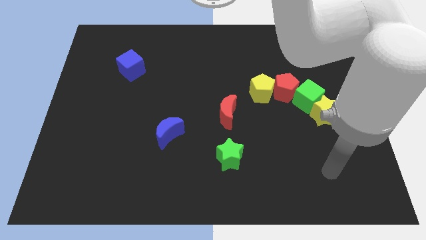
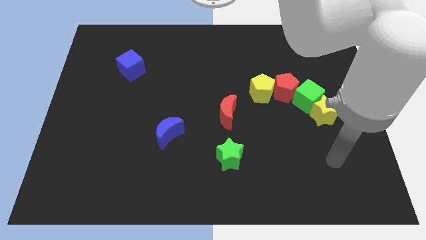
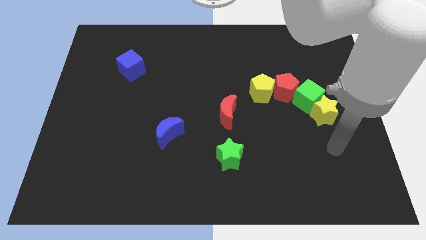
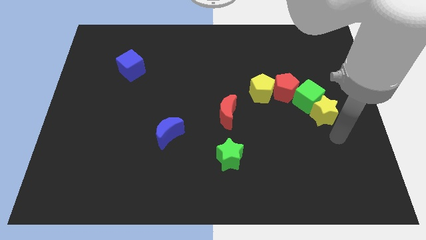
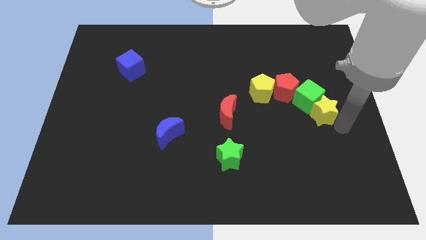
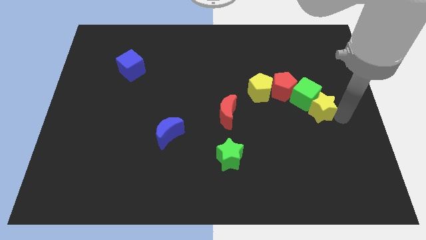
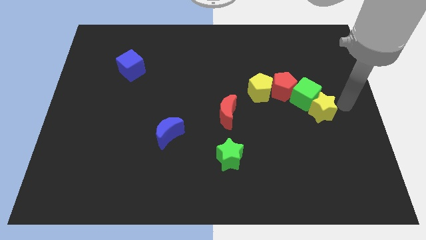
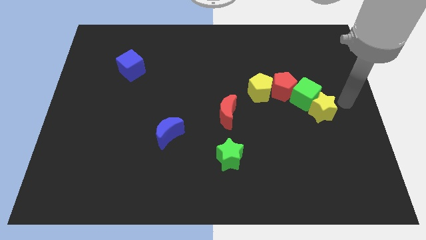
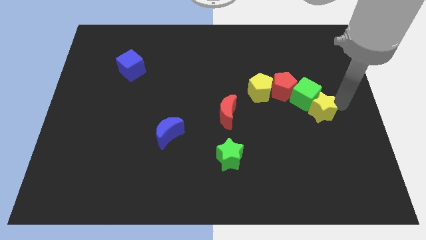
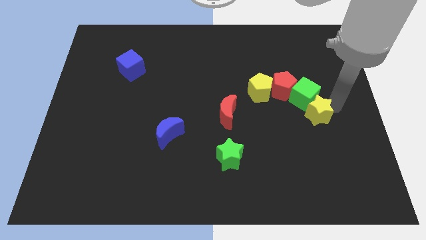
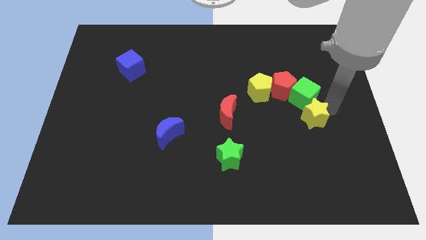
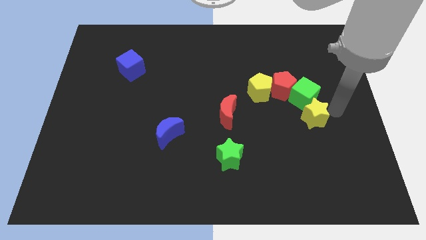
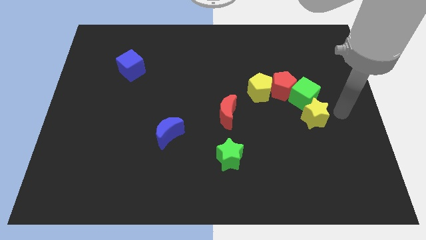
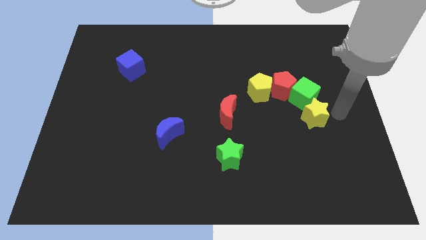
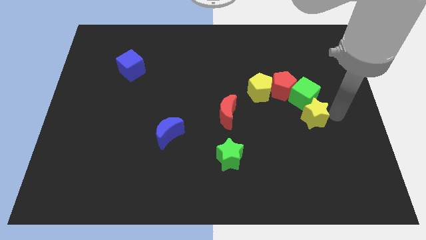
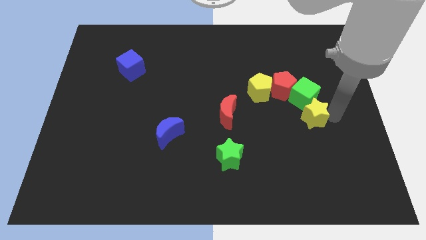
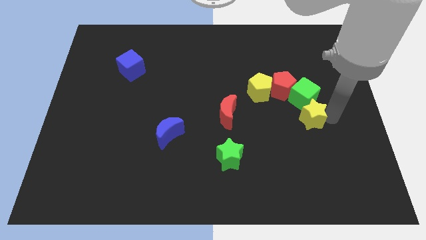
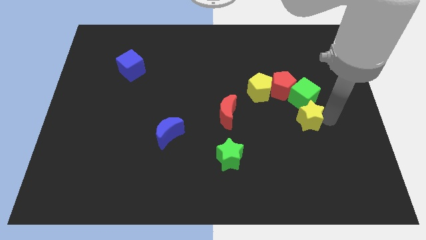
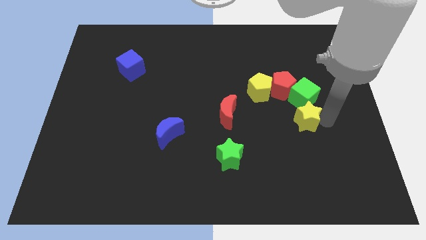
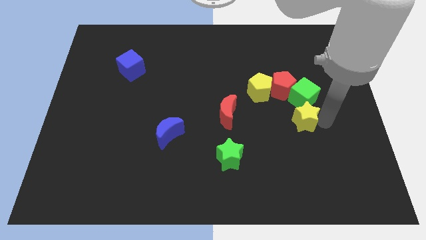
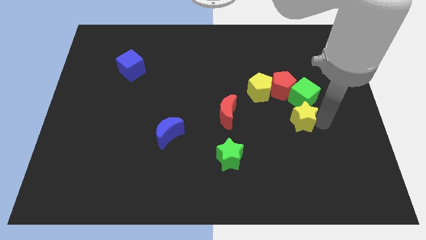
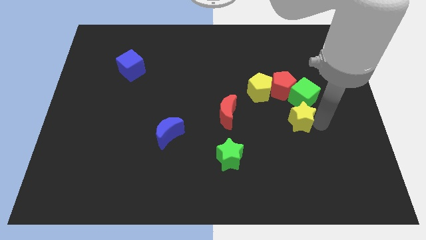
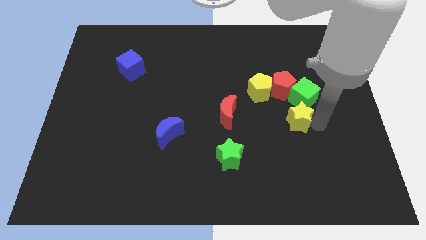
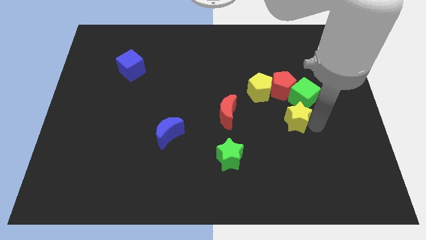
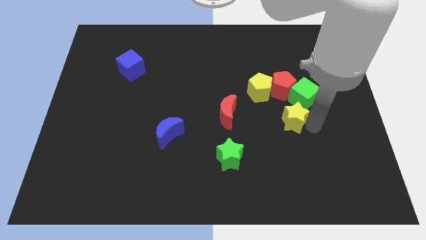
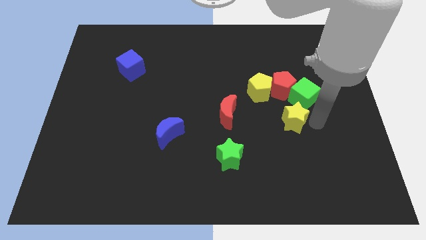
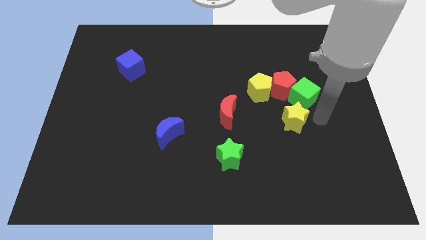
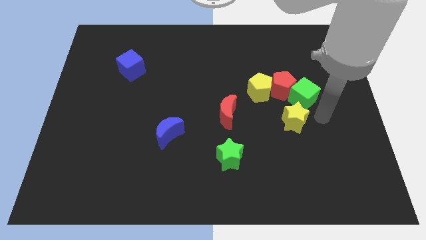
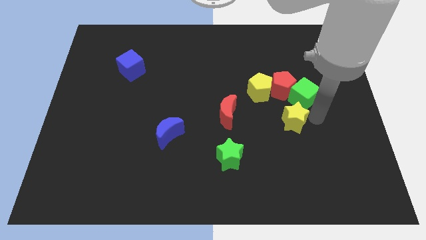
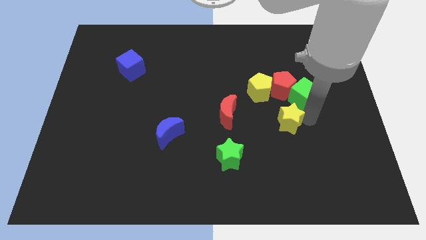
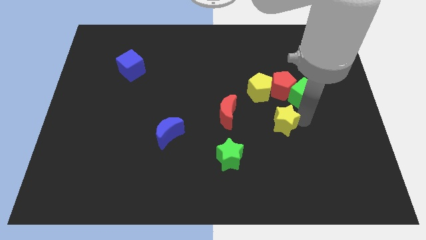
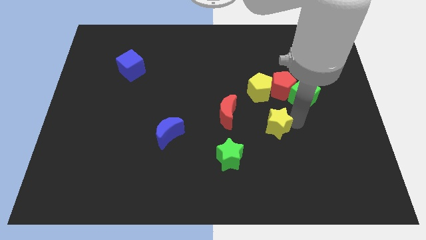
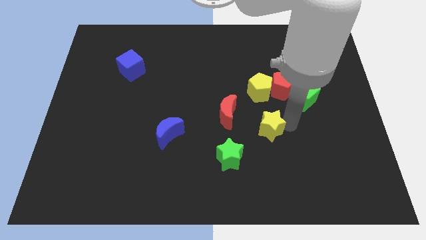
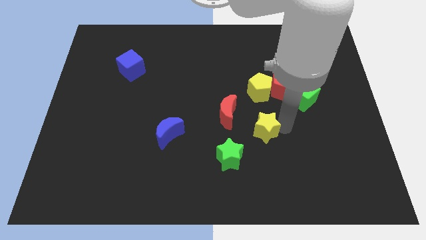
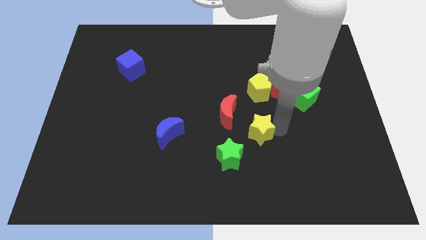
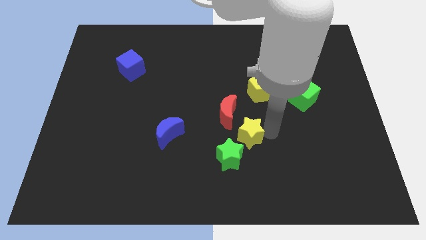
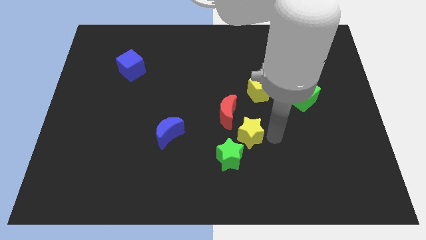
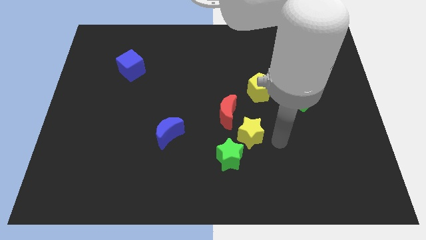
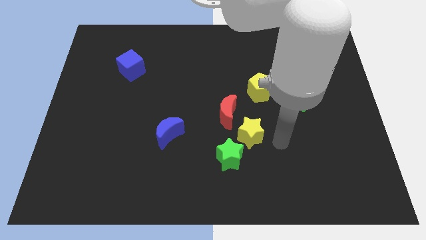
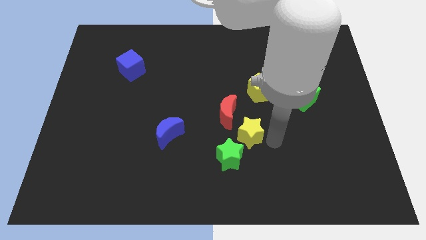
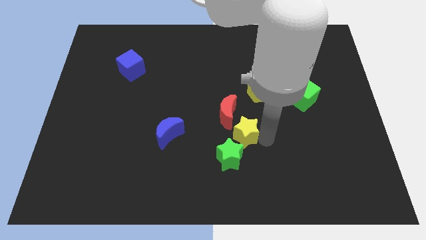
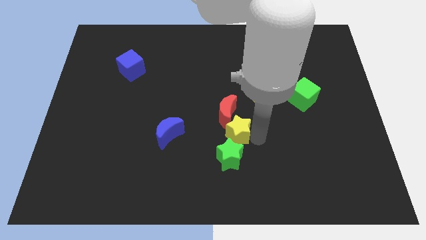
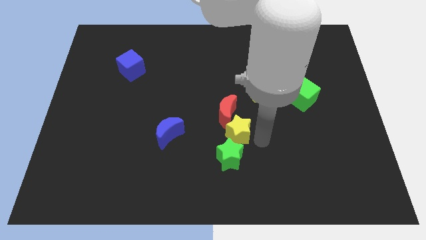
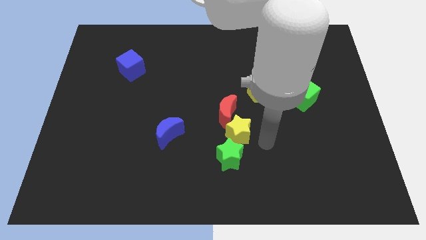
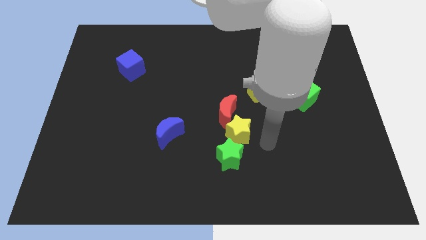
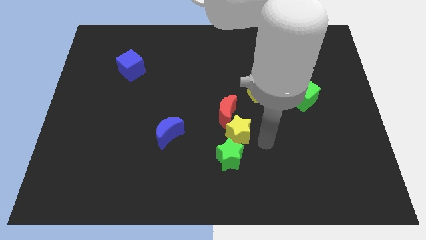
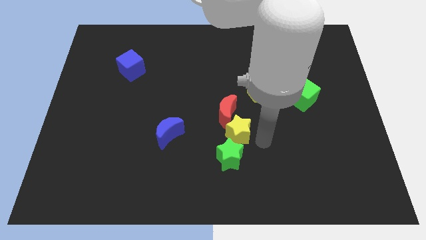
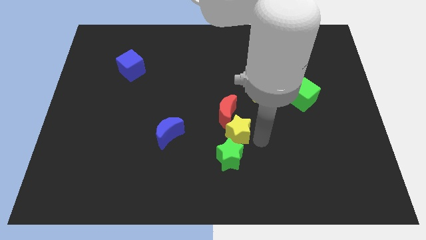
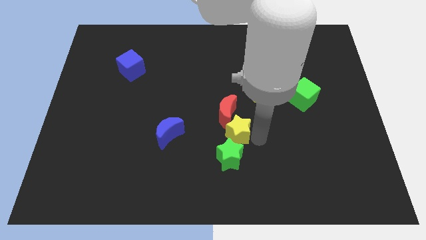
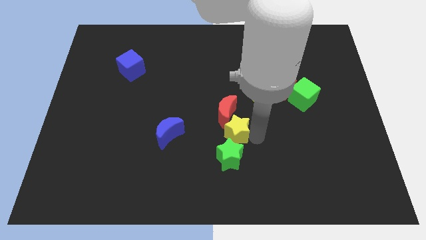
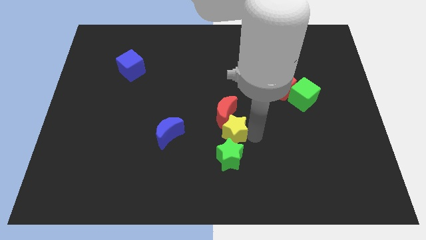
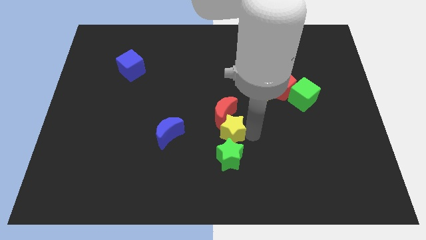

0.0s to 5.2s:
slide the yellow star left

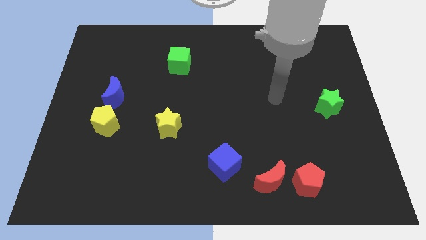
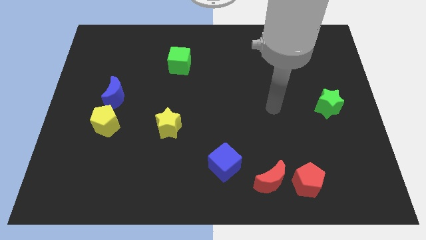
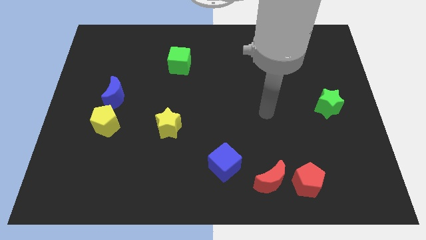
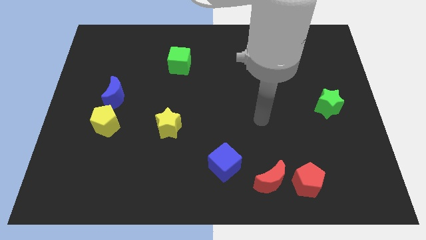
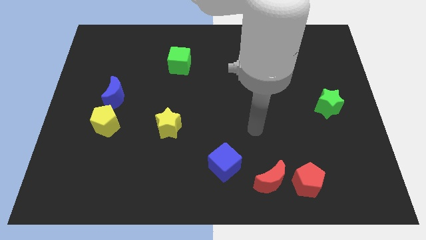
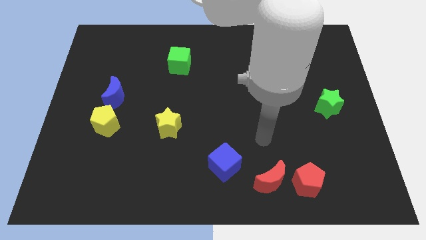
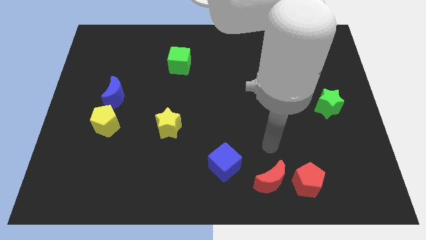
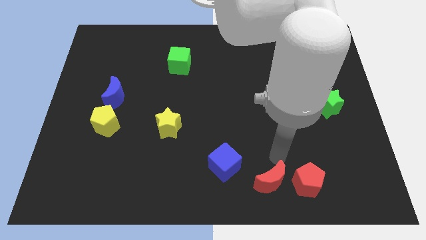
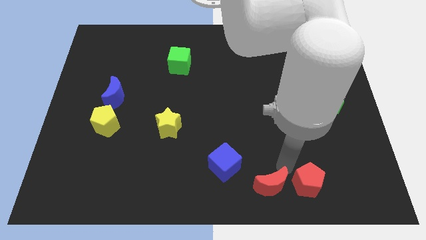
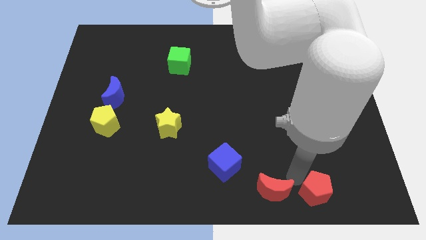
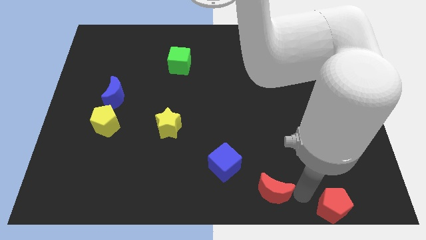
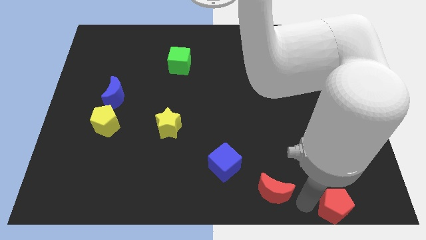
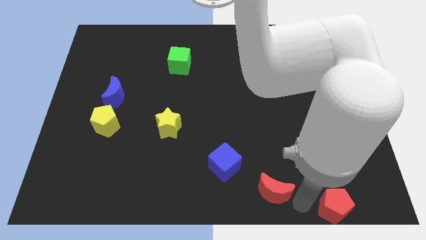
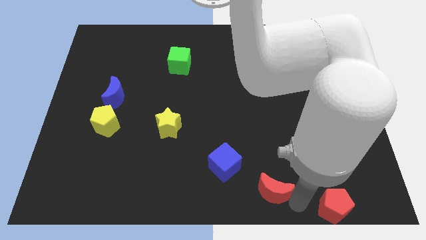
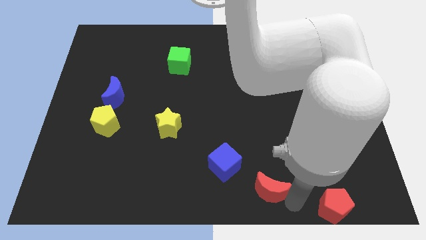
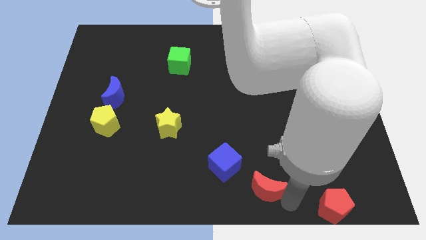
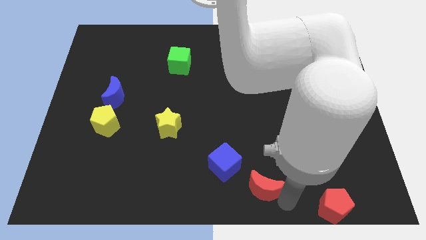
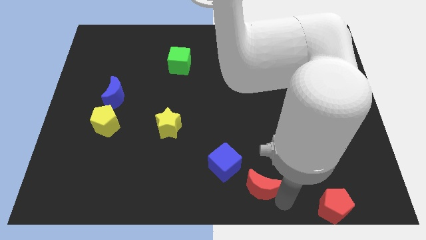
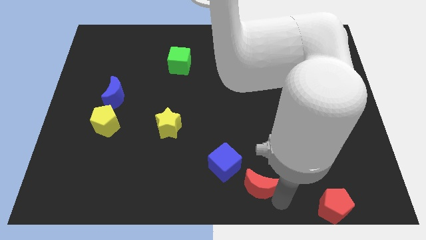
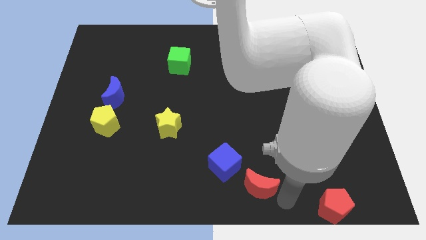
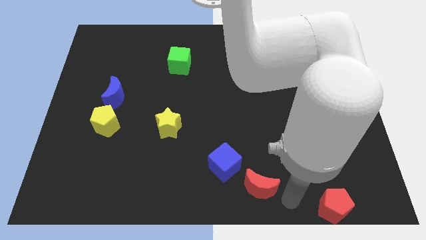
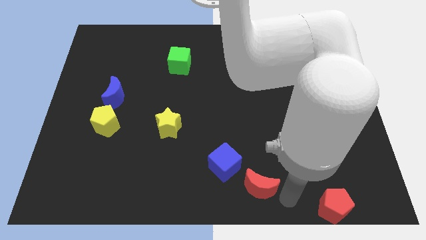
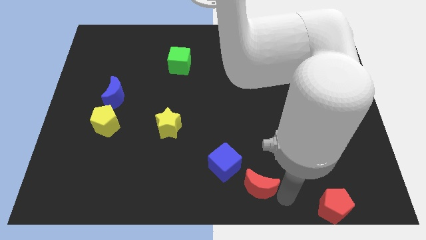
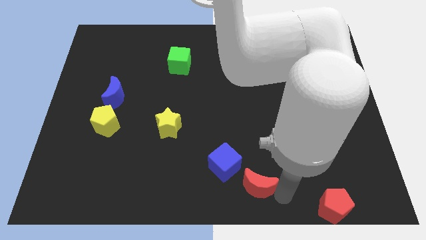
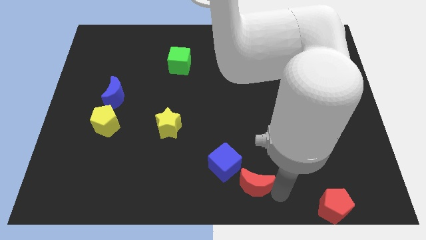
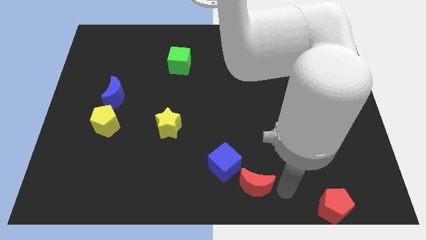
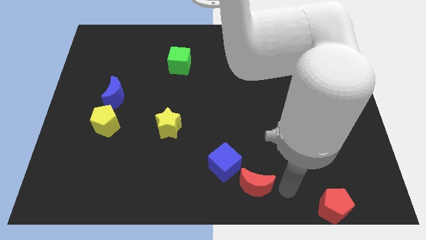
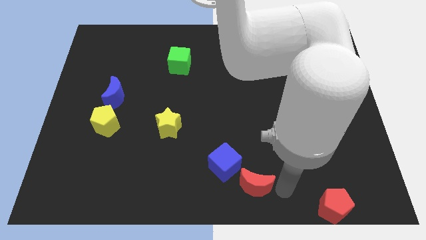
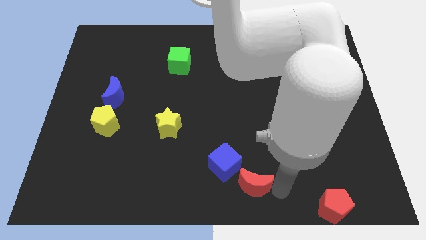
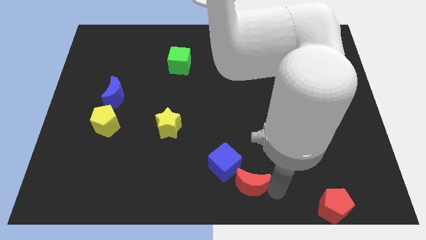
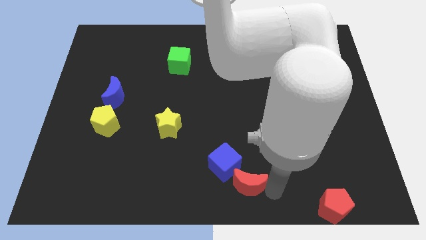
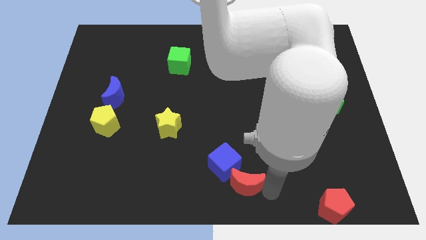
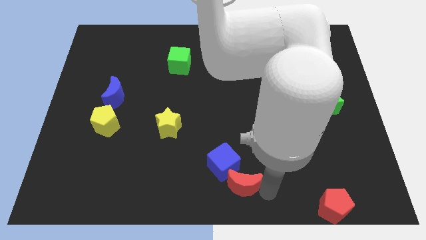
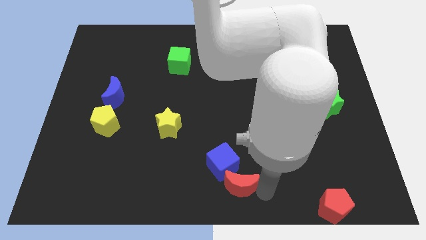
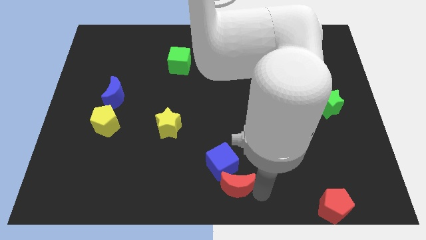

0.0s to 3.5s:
slide the red moon to the left a bit

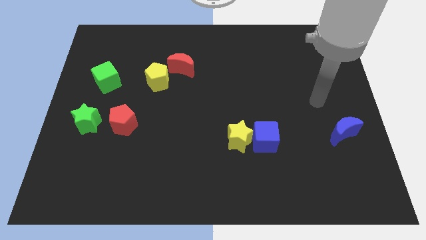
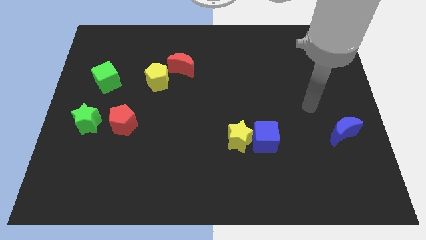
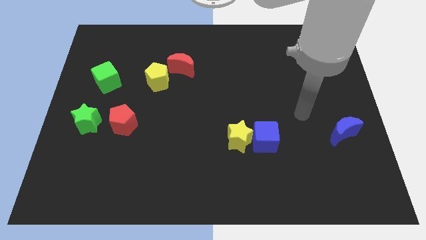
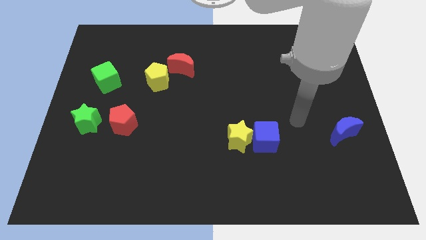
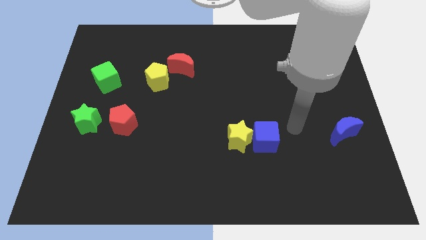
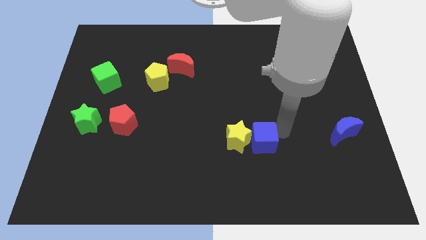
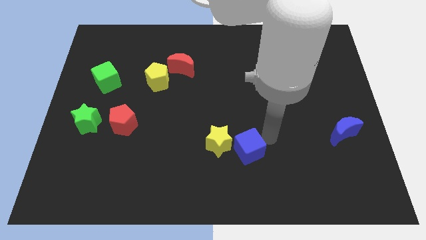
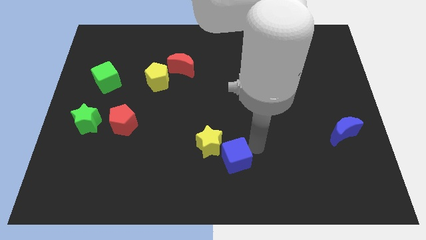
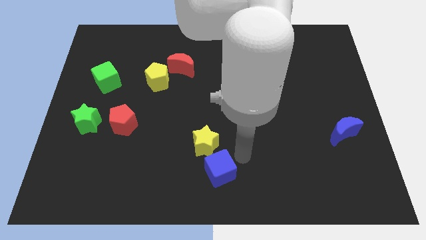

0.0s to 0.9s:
push the yellow star slightly left
